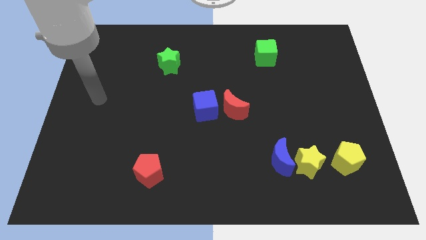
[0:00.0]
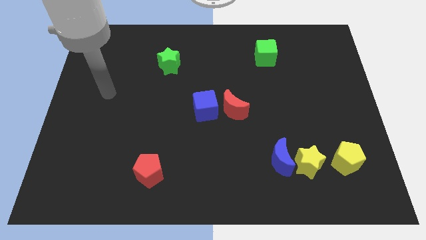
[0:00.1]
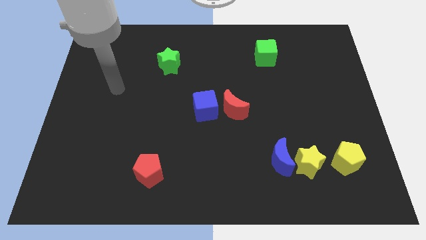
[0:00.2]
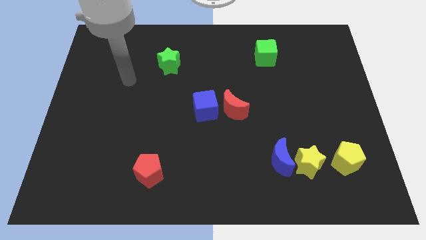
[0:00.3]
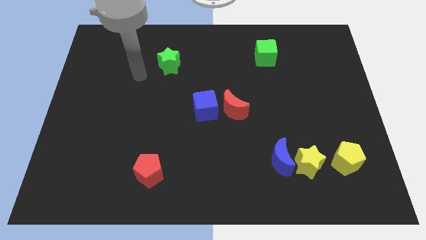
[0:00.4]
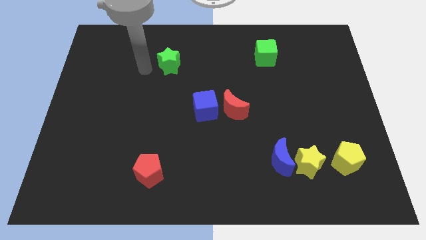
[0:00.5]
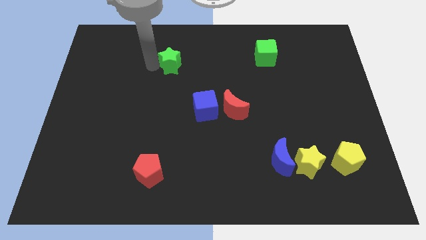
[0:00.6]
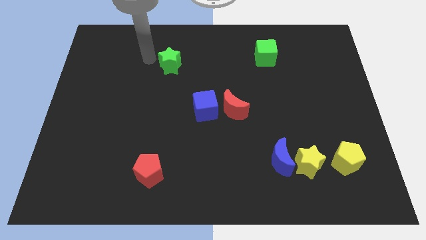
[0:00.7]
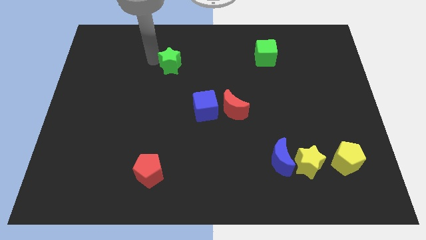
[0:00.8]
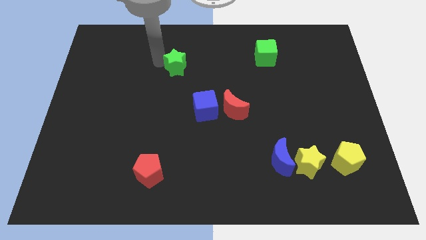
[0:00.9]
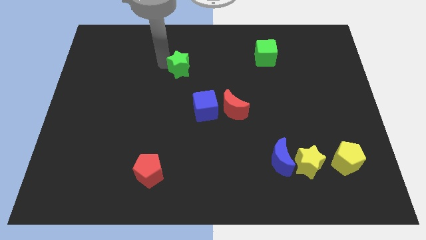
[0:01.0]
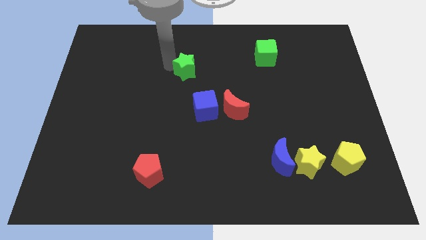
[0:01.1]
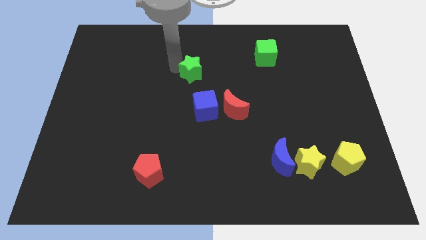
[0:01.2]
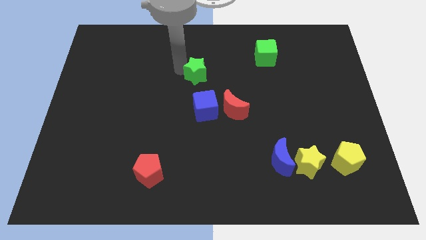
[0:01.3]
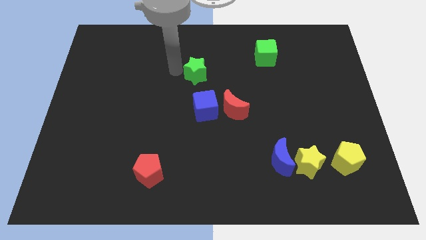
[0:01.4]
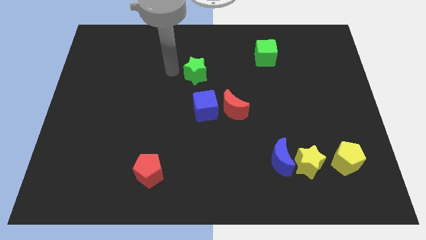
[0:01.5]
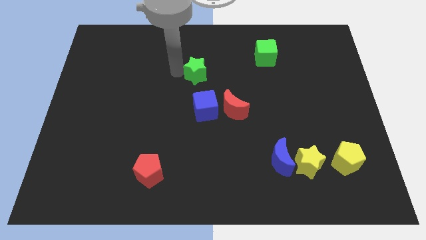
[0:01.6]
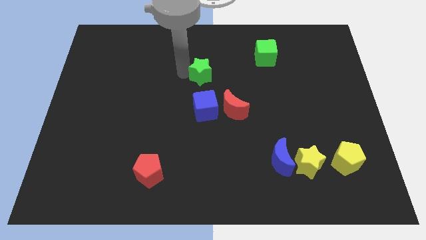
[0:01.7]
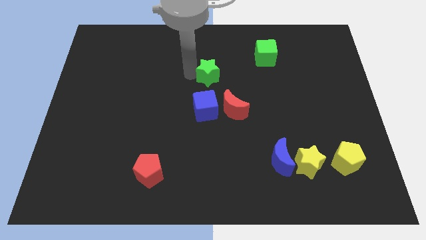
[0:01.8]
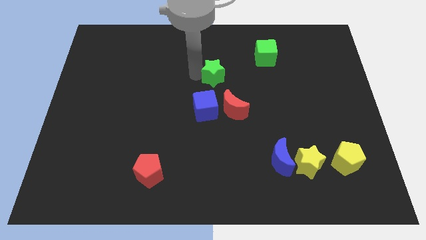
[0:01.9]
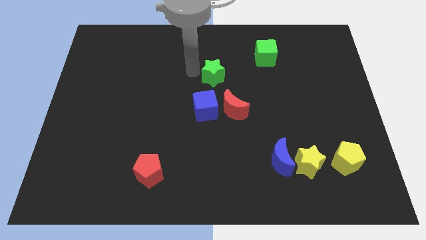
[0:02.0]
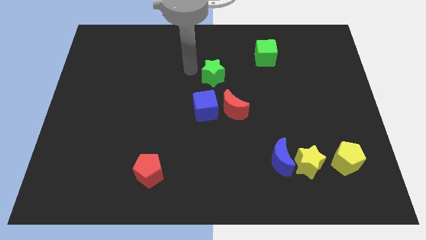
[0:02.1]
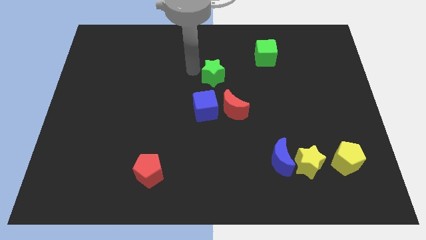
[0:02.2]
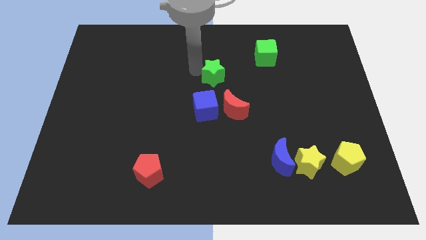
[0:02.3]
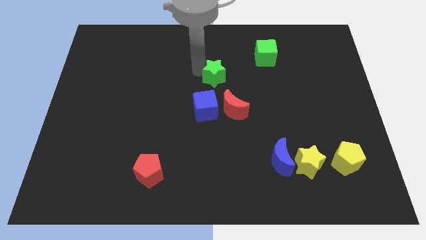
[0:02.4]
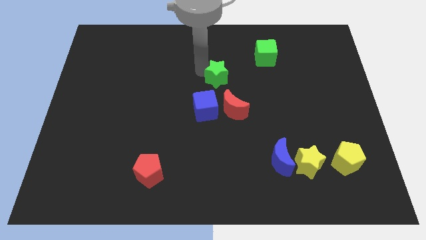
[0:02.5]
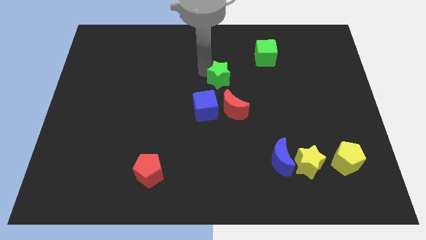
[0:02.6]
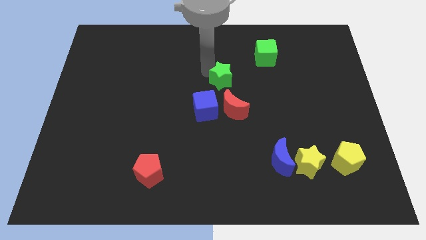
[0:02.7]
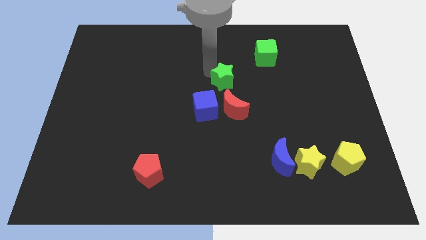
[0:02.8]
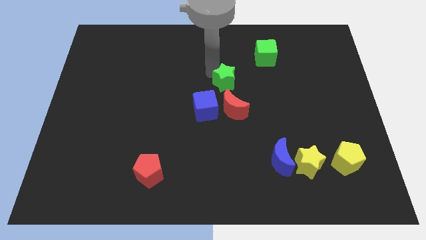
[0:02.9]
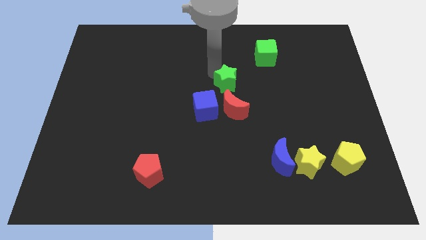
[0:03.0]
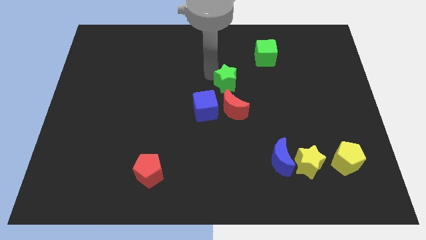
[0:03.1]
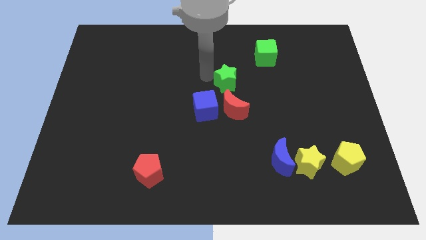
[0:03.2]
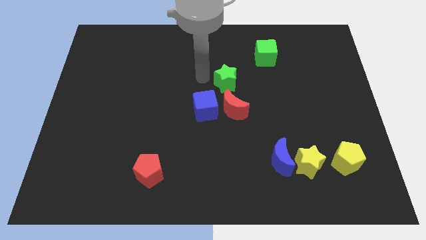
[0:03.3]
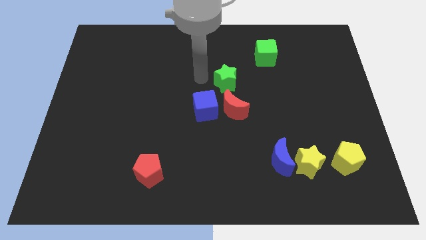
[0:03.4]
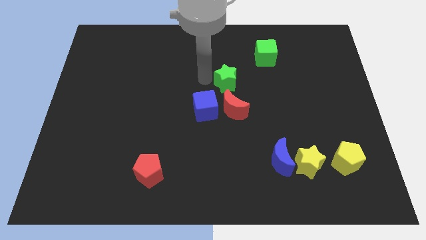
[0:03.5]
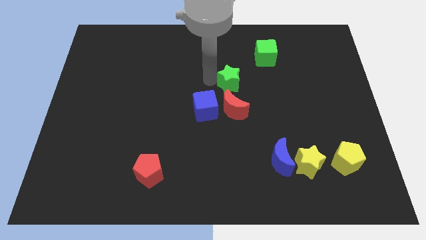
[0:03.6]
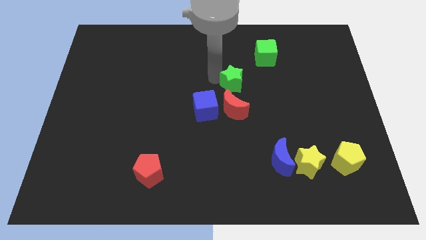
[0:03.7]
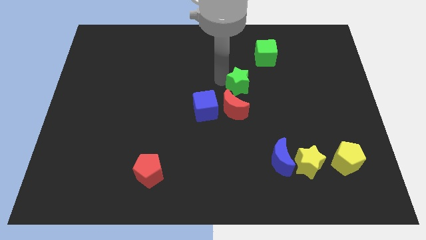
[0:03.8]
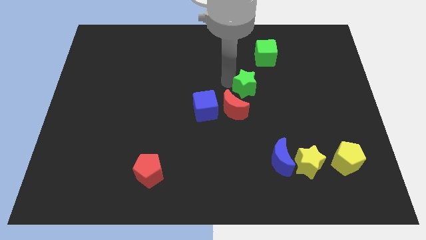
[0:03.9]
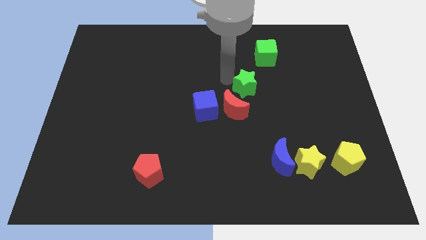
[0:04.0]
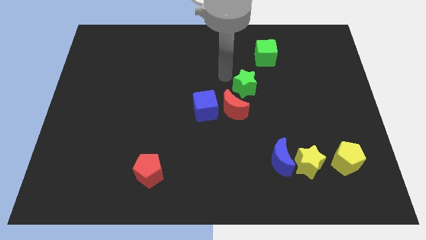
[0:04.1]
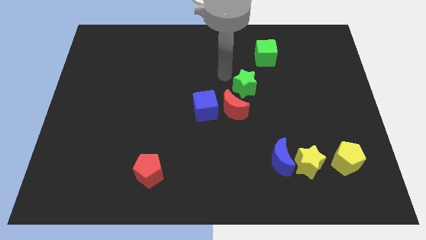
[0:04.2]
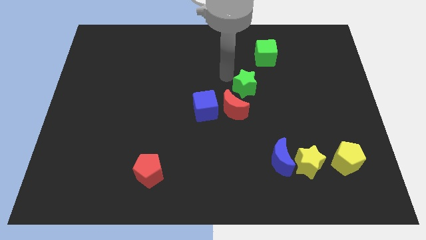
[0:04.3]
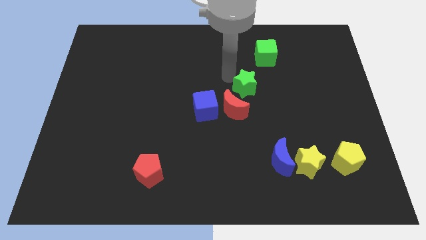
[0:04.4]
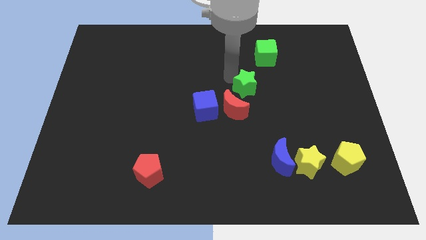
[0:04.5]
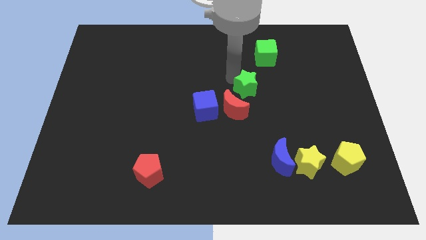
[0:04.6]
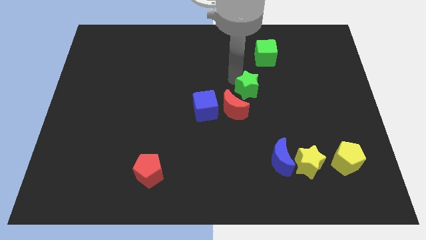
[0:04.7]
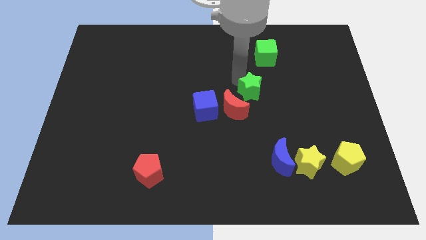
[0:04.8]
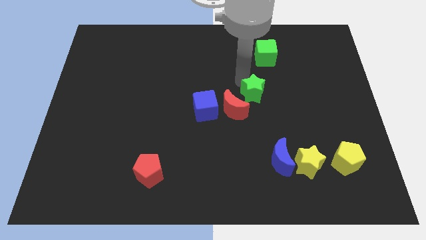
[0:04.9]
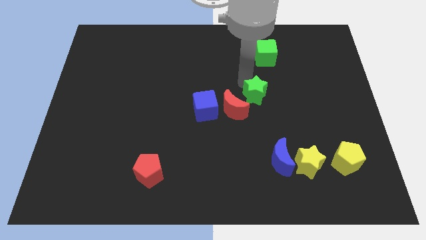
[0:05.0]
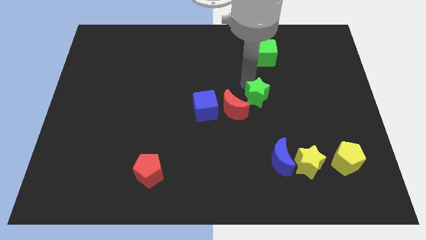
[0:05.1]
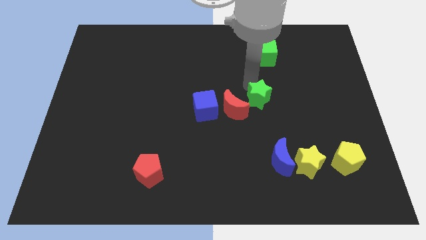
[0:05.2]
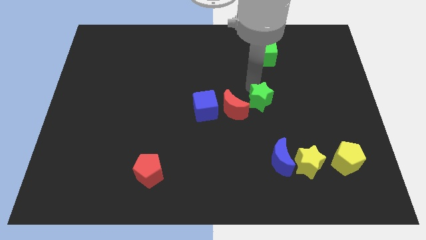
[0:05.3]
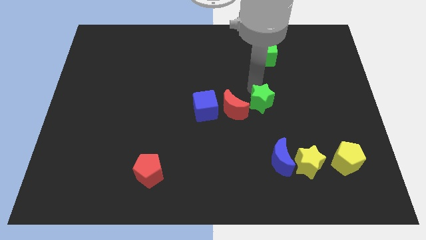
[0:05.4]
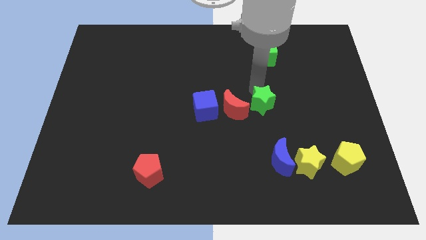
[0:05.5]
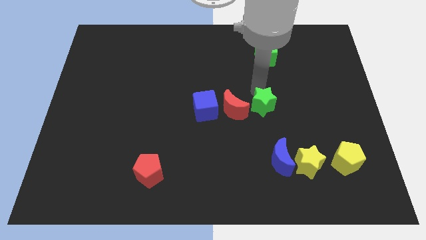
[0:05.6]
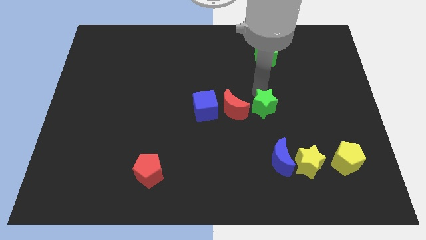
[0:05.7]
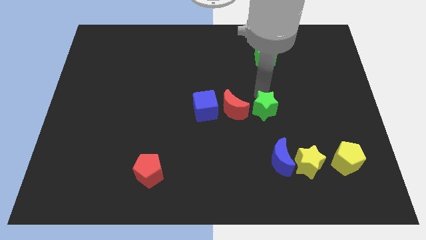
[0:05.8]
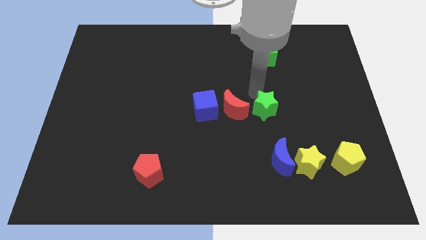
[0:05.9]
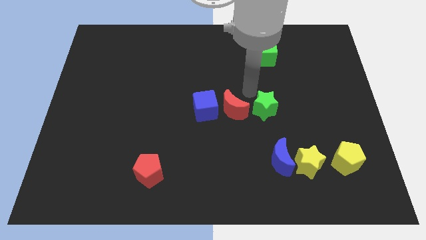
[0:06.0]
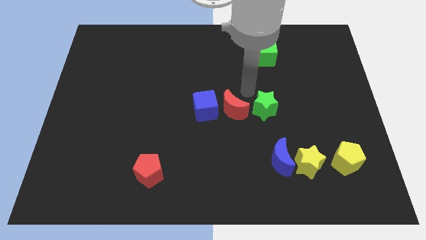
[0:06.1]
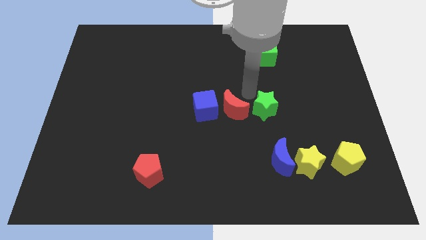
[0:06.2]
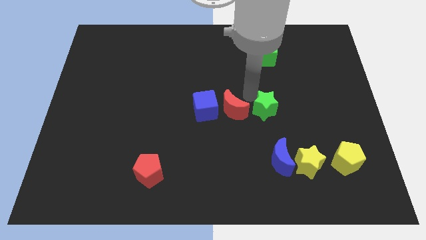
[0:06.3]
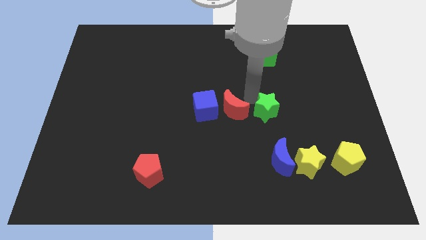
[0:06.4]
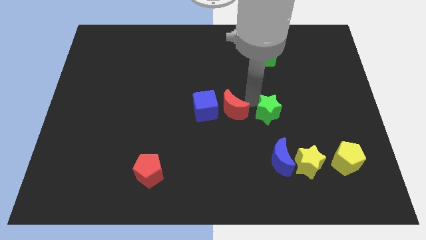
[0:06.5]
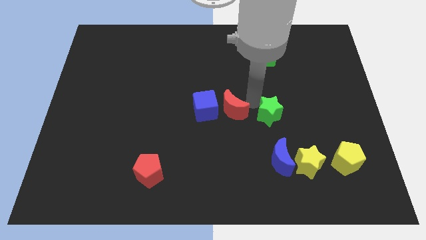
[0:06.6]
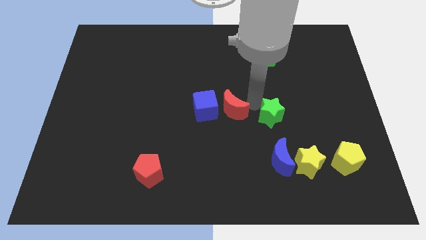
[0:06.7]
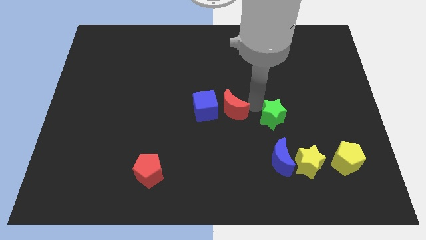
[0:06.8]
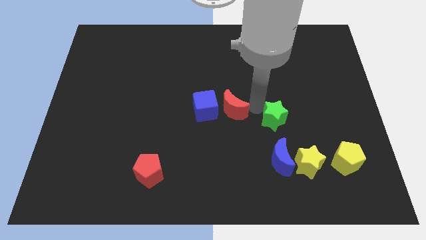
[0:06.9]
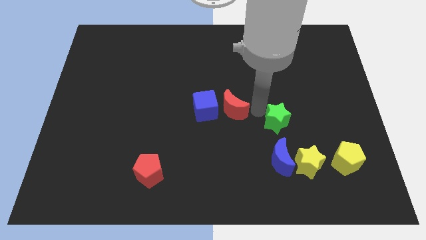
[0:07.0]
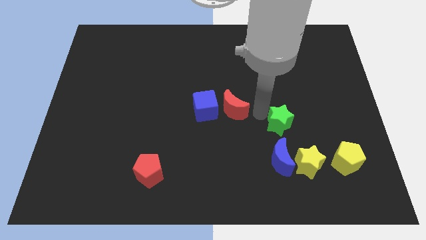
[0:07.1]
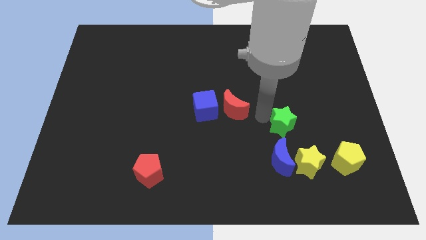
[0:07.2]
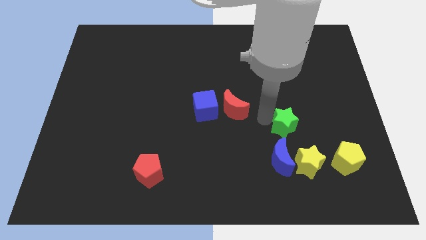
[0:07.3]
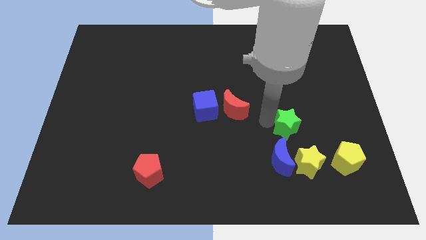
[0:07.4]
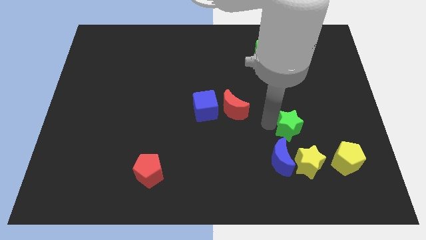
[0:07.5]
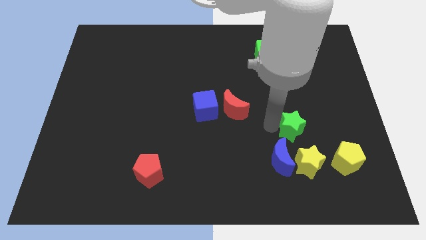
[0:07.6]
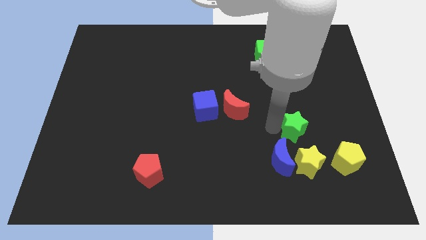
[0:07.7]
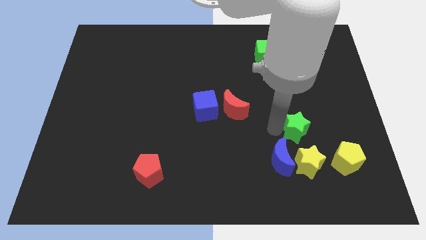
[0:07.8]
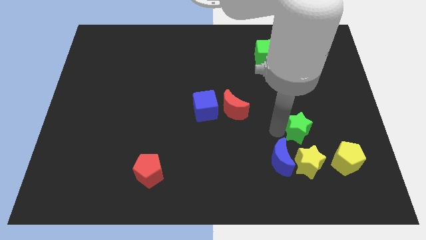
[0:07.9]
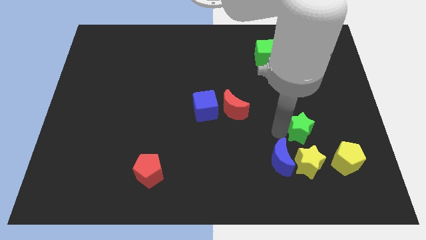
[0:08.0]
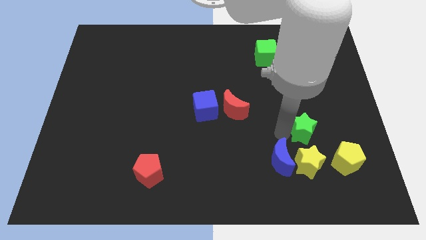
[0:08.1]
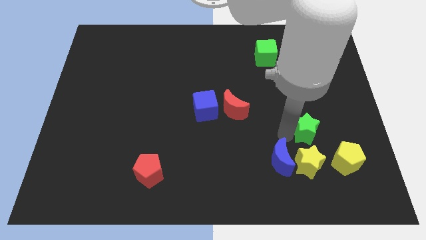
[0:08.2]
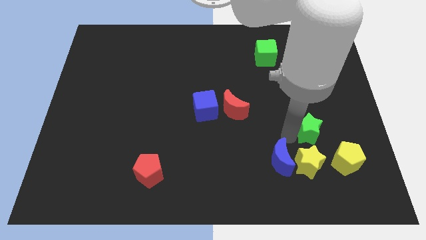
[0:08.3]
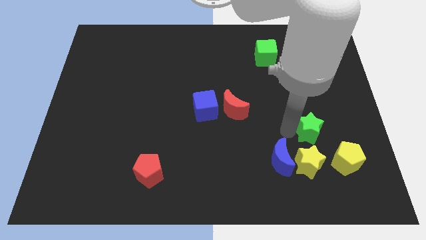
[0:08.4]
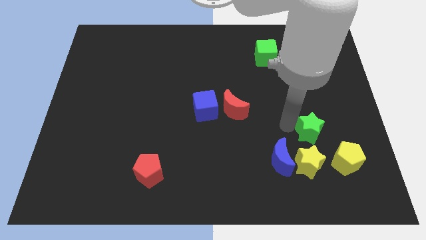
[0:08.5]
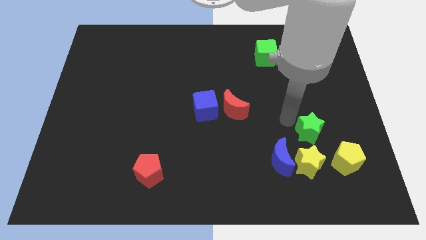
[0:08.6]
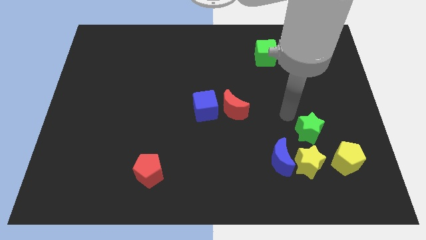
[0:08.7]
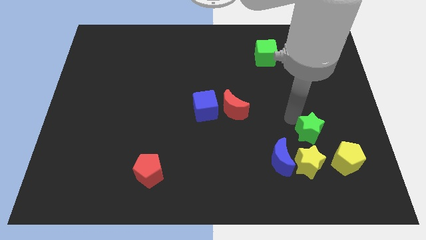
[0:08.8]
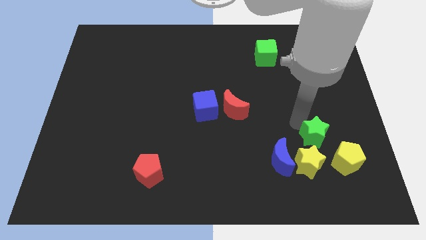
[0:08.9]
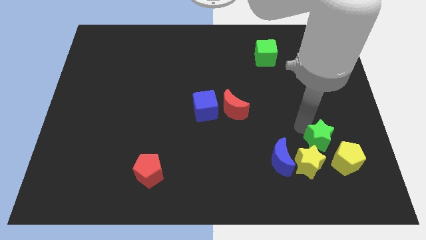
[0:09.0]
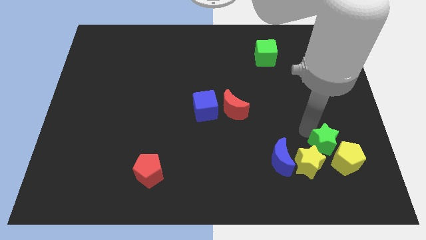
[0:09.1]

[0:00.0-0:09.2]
push the green star to the yellow pentagon
